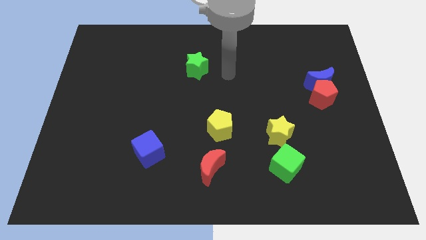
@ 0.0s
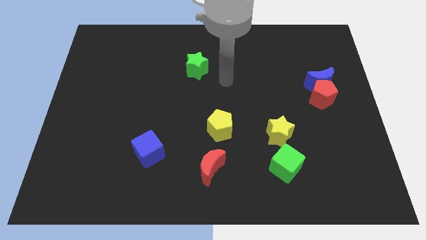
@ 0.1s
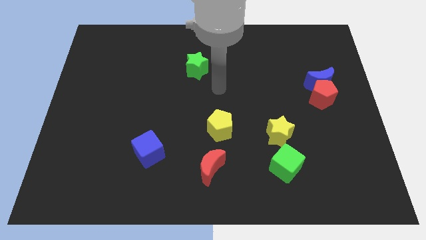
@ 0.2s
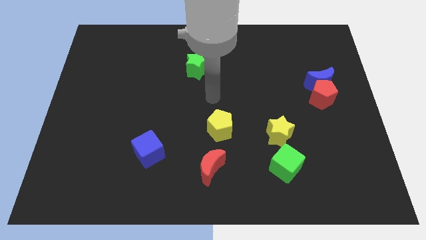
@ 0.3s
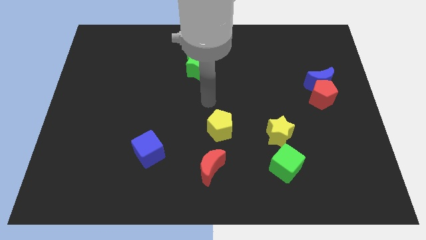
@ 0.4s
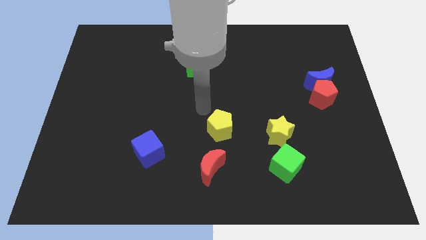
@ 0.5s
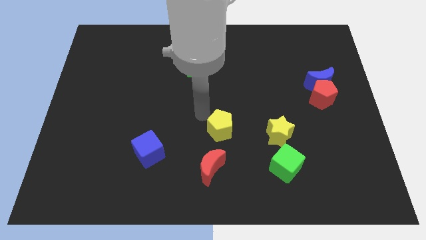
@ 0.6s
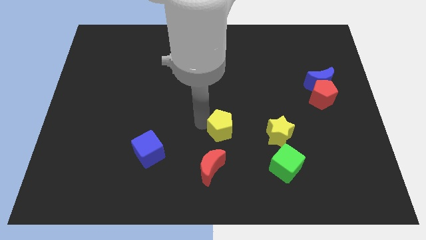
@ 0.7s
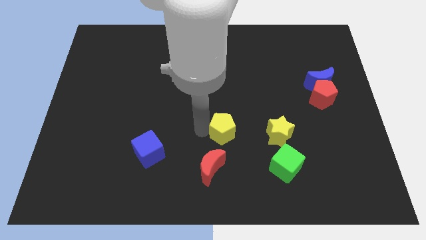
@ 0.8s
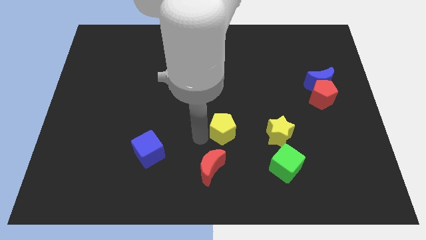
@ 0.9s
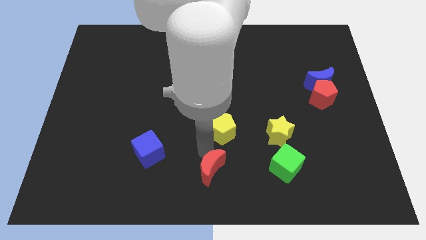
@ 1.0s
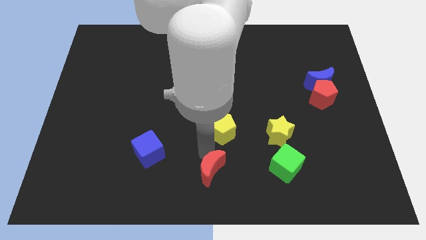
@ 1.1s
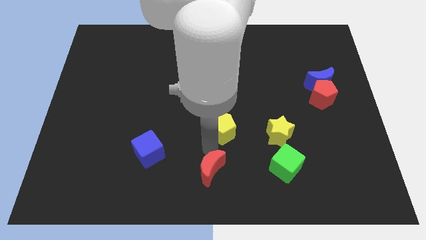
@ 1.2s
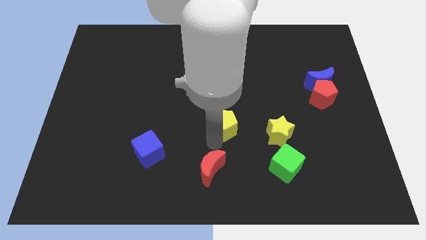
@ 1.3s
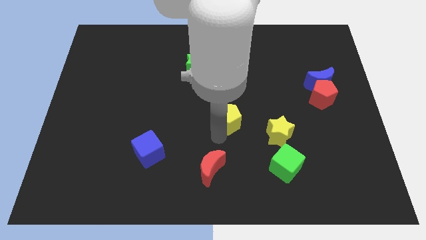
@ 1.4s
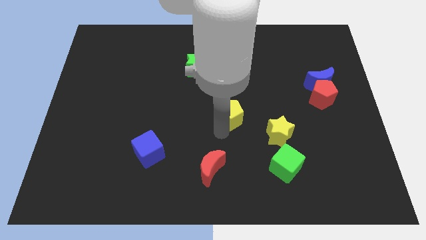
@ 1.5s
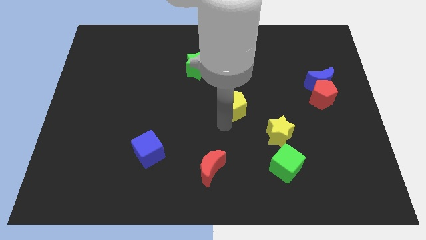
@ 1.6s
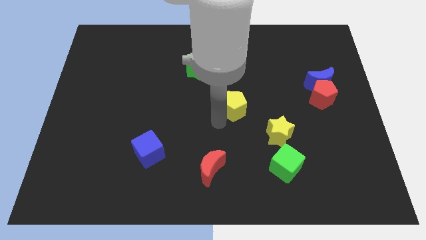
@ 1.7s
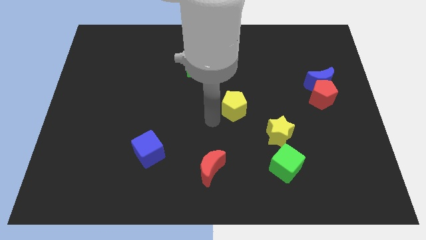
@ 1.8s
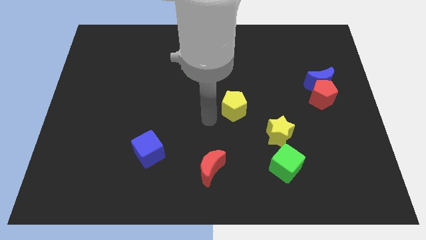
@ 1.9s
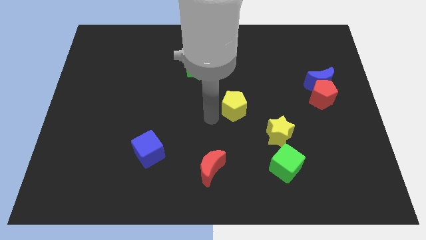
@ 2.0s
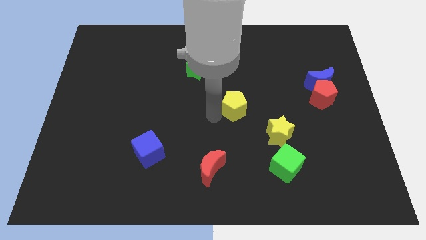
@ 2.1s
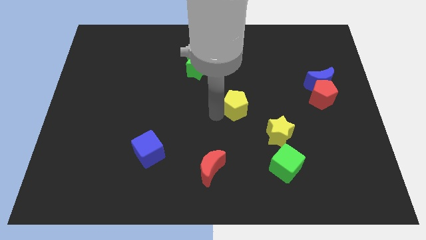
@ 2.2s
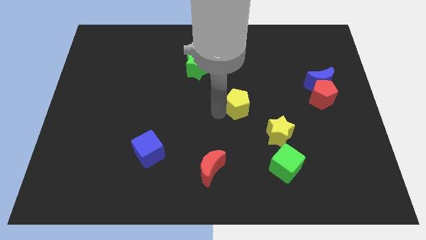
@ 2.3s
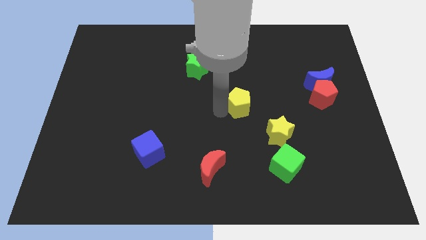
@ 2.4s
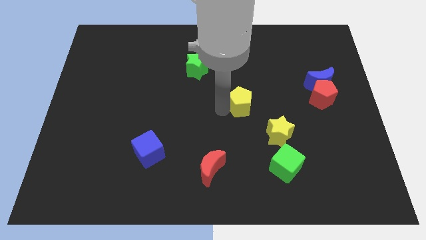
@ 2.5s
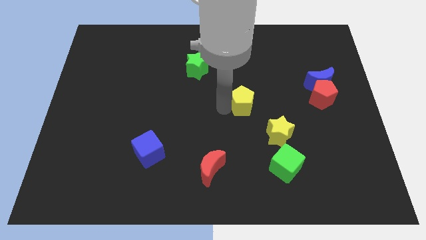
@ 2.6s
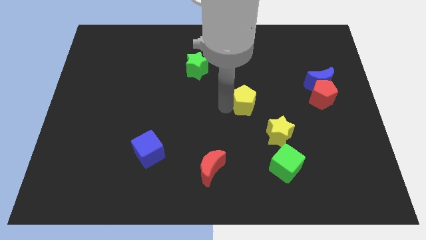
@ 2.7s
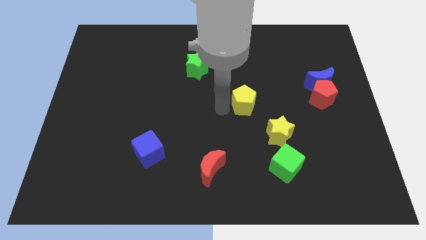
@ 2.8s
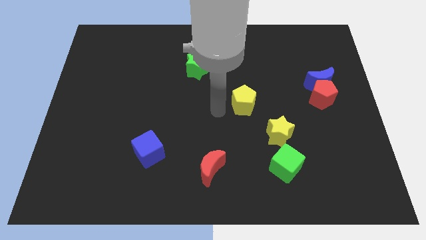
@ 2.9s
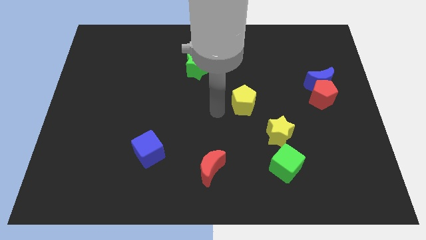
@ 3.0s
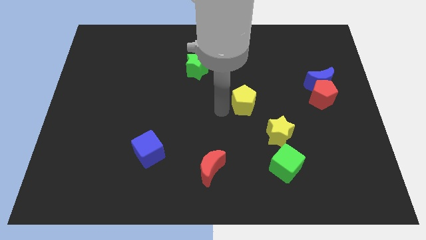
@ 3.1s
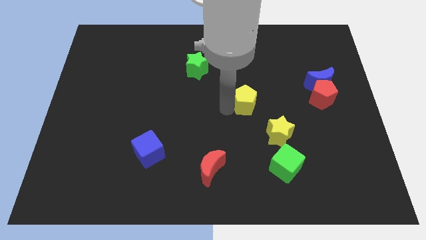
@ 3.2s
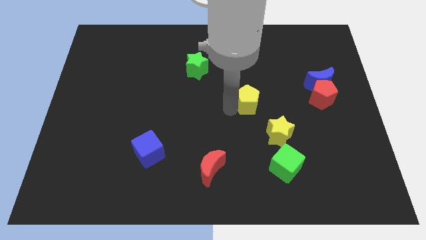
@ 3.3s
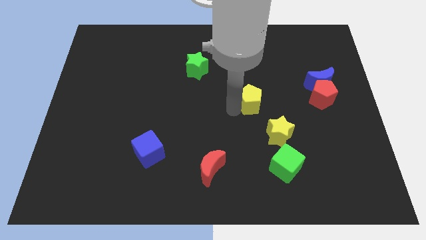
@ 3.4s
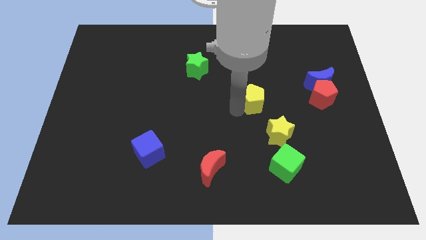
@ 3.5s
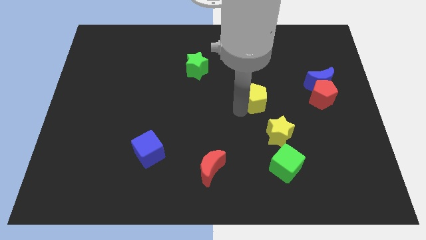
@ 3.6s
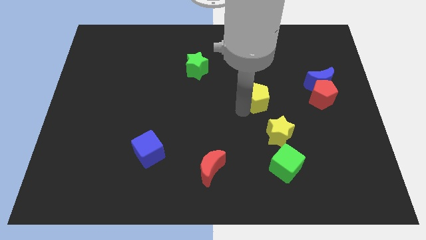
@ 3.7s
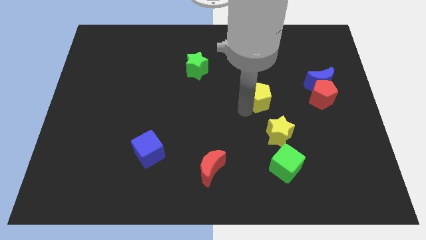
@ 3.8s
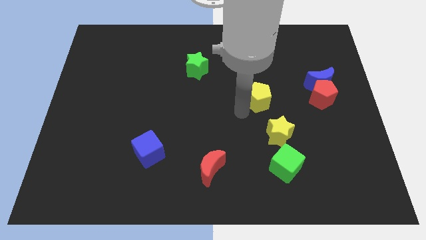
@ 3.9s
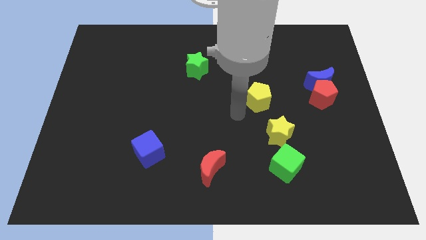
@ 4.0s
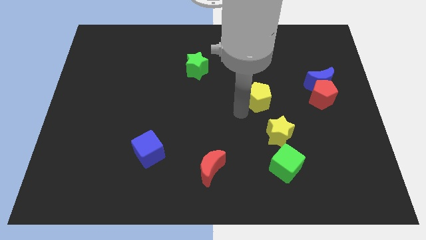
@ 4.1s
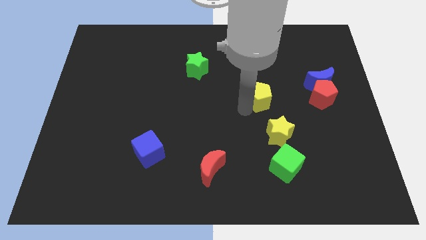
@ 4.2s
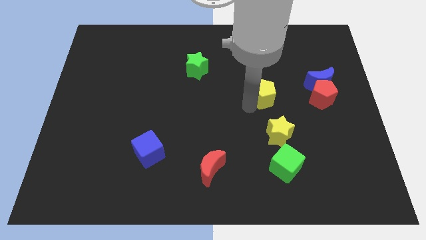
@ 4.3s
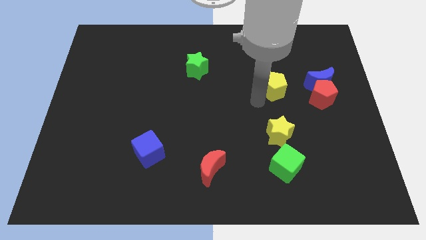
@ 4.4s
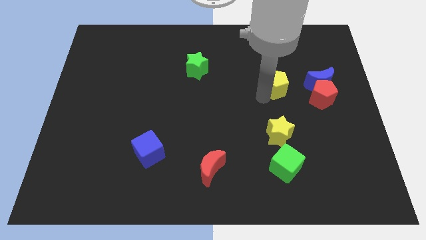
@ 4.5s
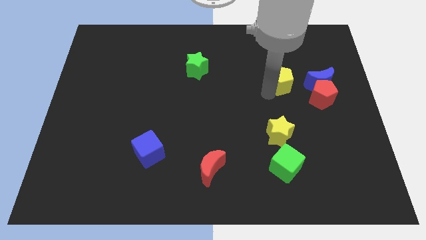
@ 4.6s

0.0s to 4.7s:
slide the yellow pentagon upwards and to the right diagonally

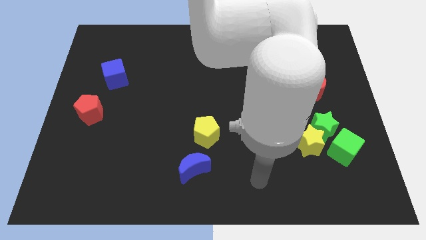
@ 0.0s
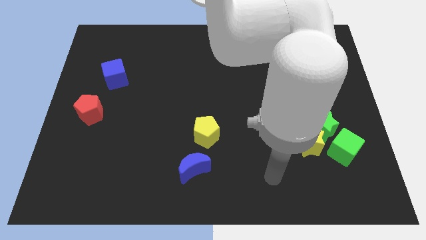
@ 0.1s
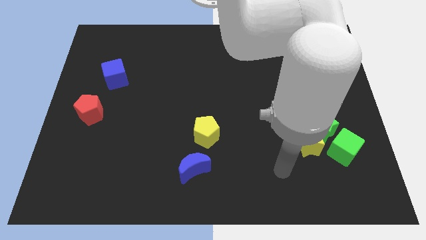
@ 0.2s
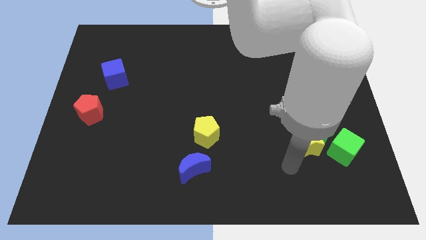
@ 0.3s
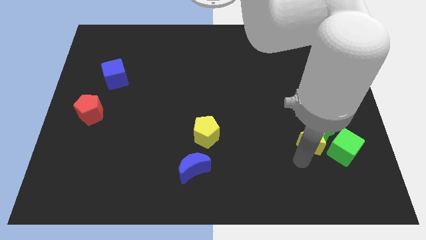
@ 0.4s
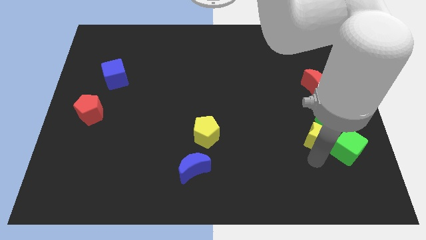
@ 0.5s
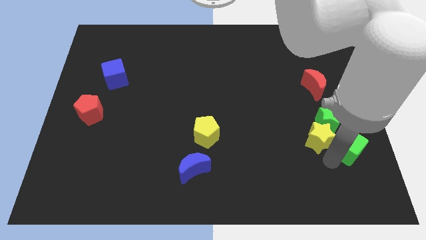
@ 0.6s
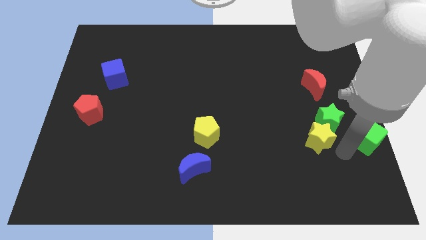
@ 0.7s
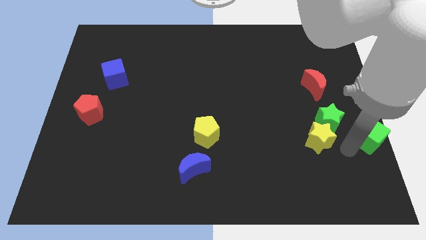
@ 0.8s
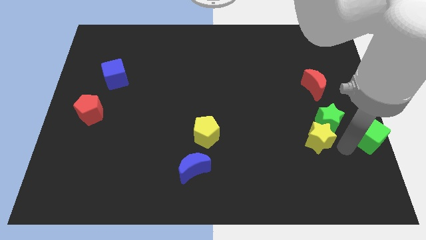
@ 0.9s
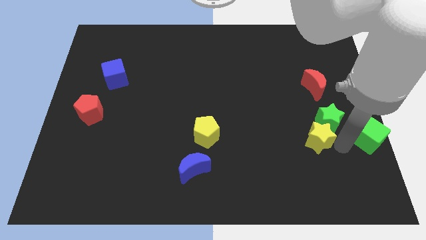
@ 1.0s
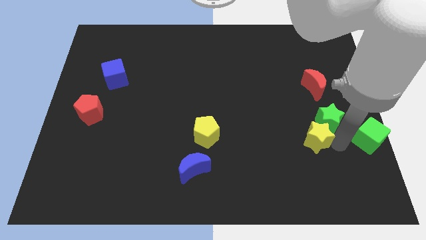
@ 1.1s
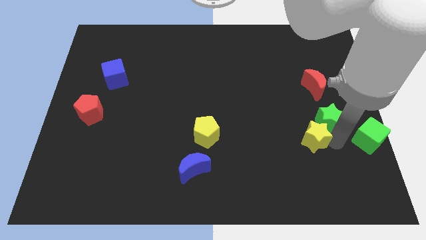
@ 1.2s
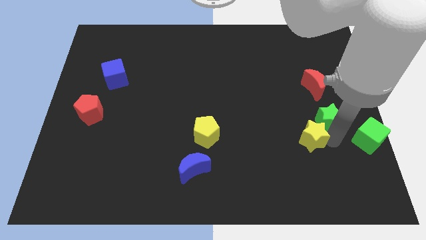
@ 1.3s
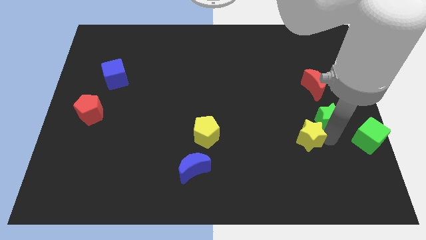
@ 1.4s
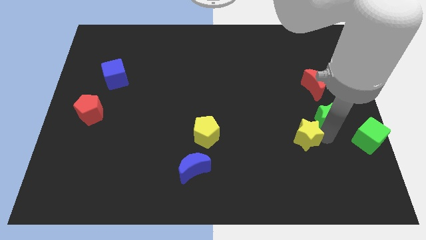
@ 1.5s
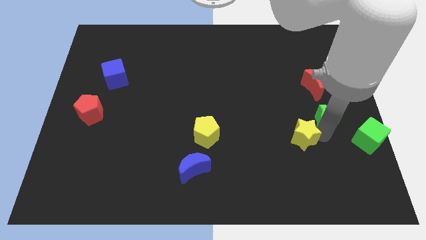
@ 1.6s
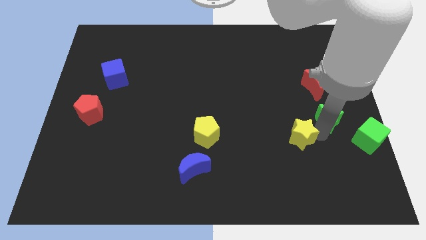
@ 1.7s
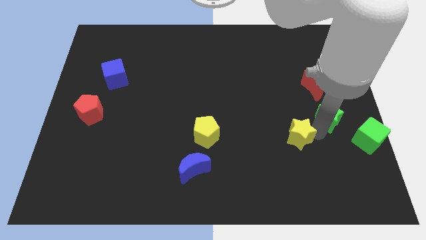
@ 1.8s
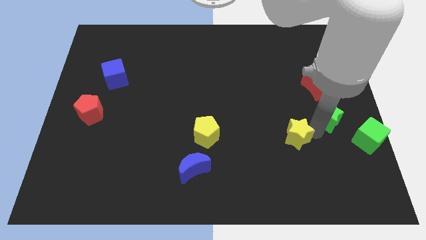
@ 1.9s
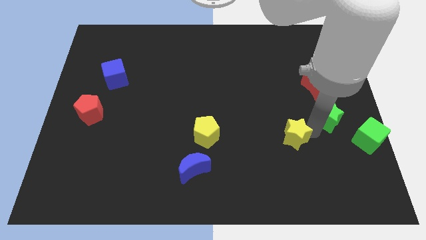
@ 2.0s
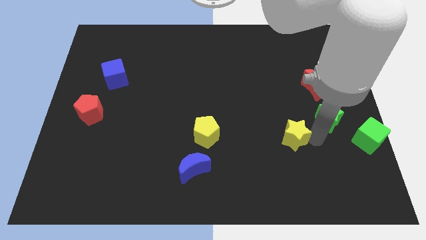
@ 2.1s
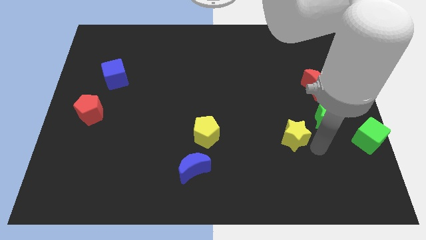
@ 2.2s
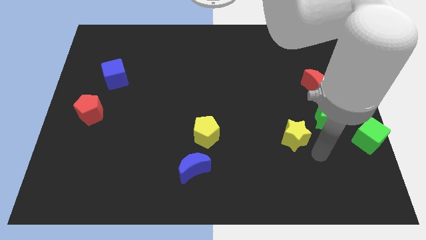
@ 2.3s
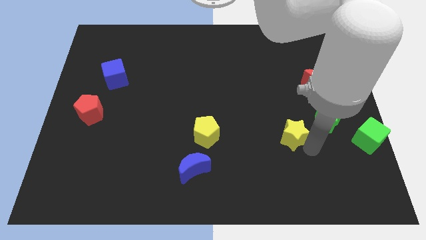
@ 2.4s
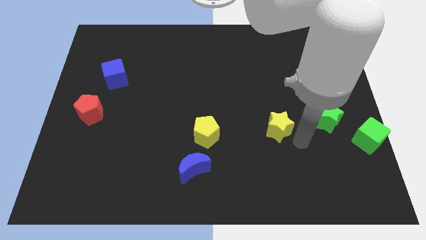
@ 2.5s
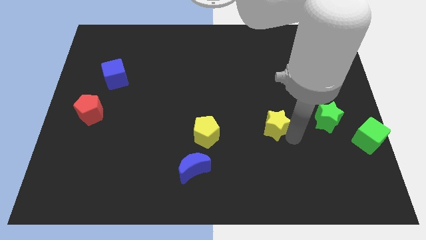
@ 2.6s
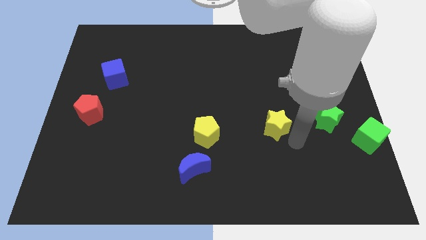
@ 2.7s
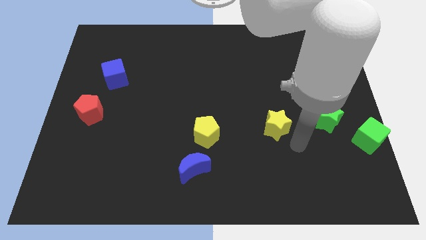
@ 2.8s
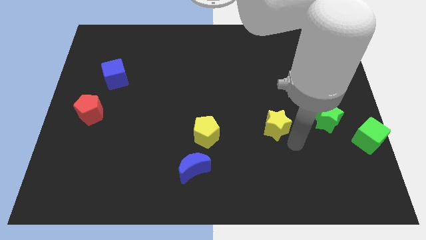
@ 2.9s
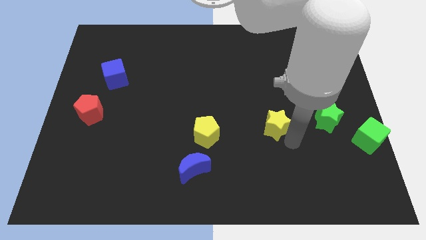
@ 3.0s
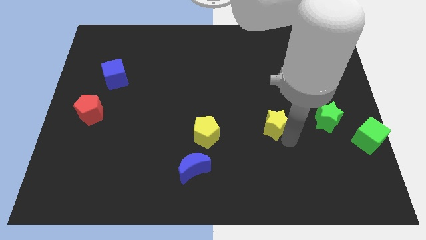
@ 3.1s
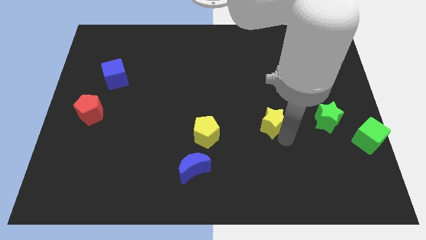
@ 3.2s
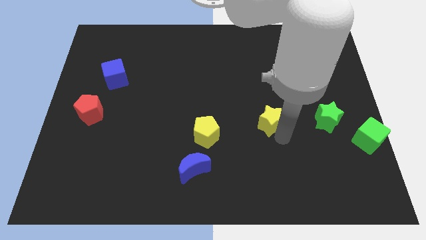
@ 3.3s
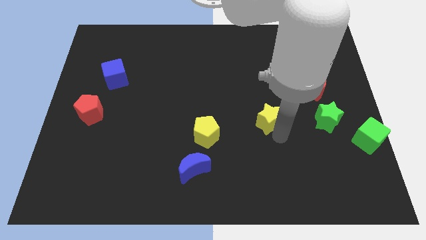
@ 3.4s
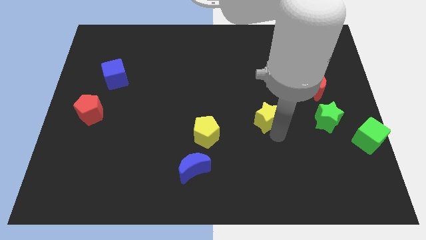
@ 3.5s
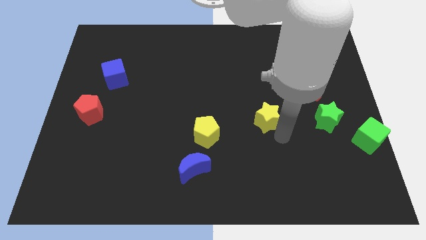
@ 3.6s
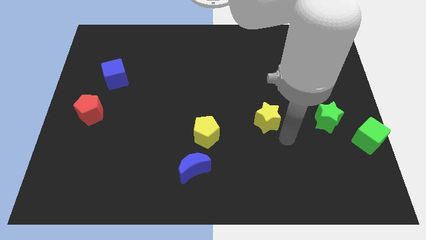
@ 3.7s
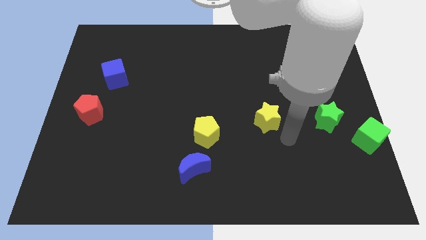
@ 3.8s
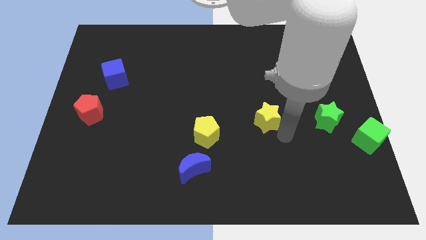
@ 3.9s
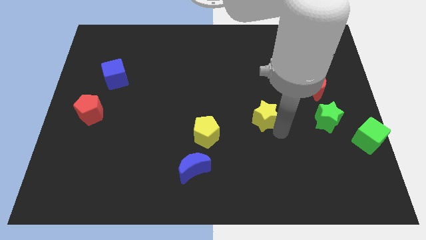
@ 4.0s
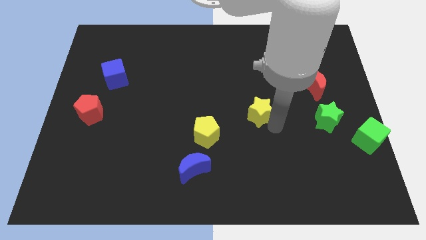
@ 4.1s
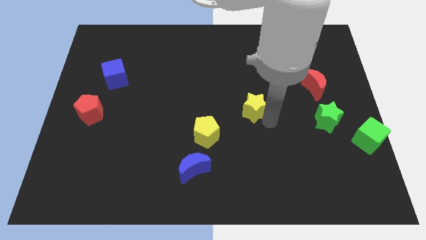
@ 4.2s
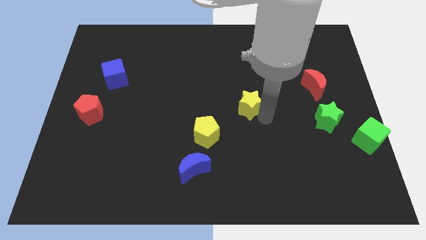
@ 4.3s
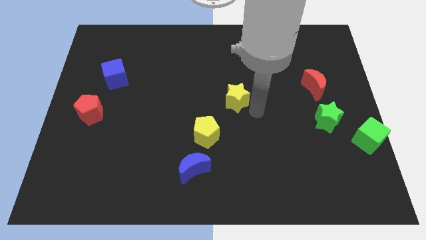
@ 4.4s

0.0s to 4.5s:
slide the yellow star up and to the left diagonally
